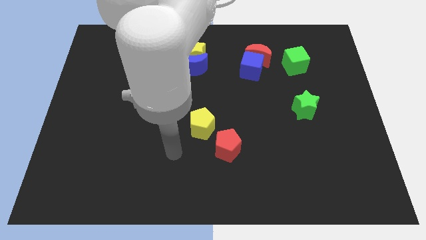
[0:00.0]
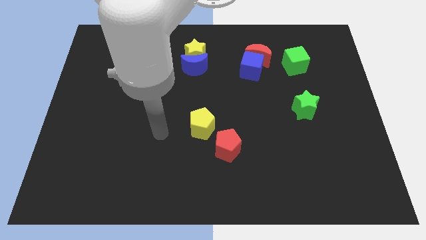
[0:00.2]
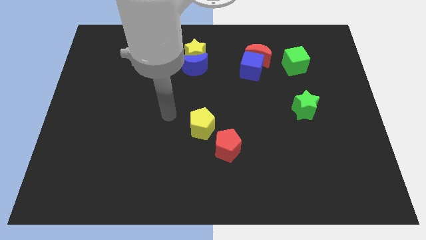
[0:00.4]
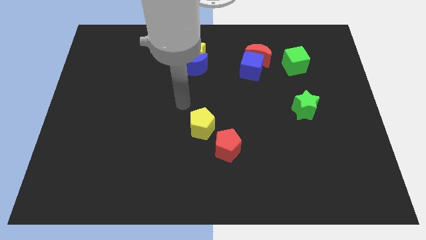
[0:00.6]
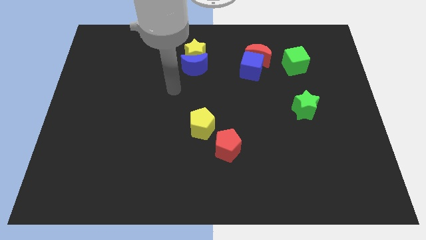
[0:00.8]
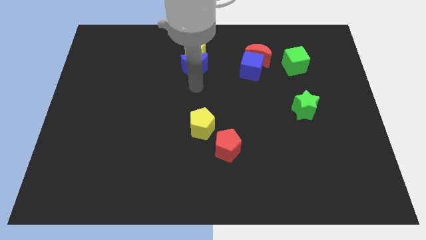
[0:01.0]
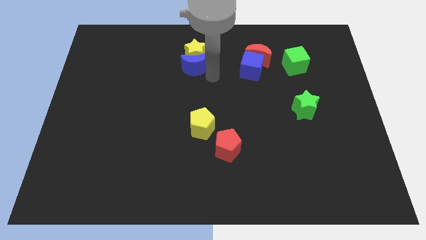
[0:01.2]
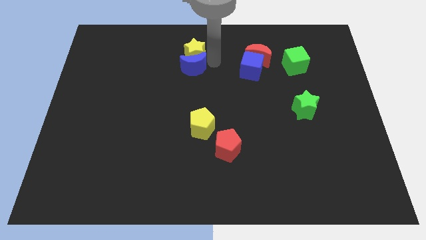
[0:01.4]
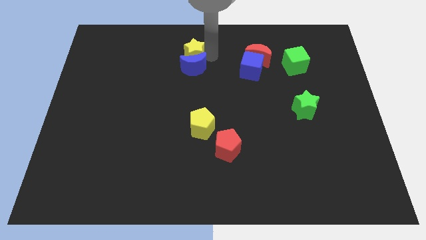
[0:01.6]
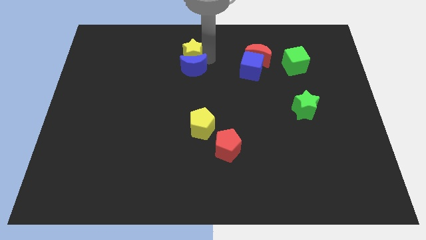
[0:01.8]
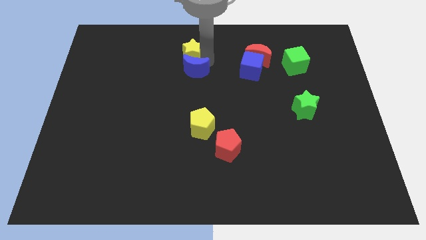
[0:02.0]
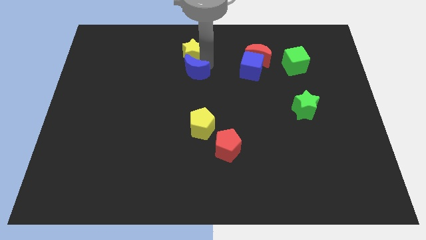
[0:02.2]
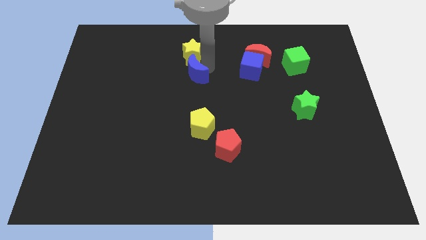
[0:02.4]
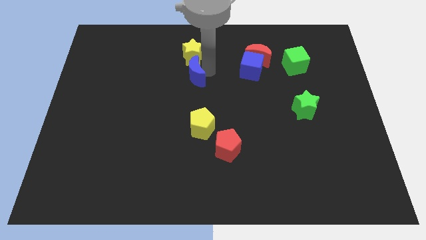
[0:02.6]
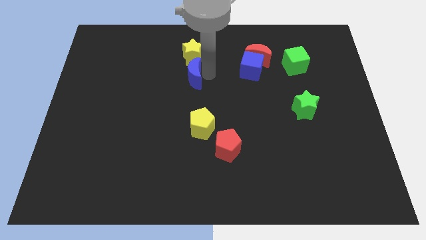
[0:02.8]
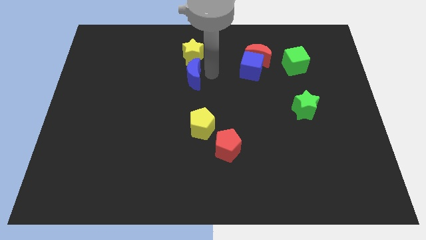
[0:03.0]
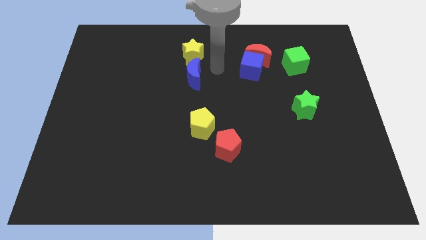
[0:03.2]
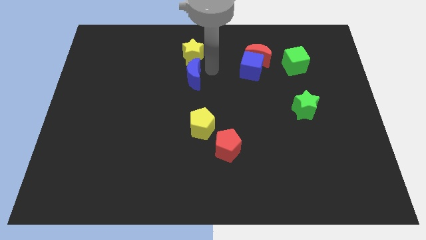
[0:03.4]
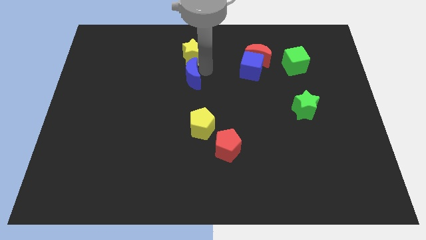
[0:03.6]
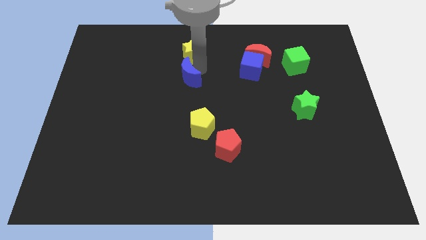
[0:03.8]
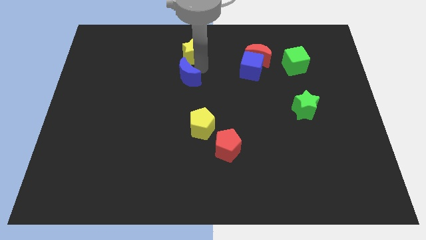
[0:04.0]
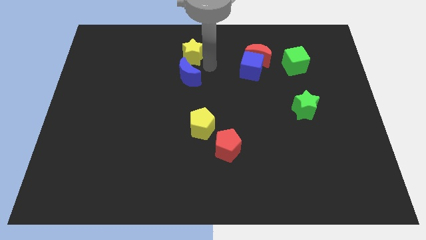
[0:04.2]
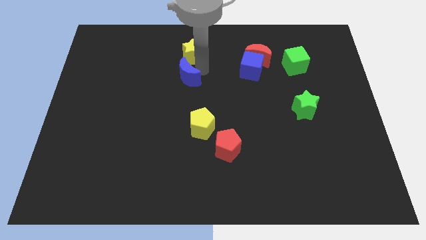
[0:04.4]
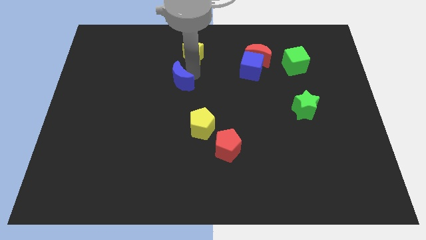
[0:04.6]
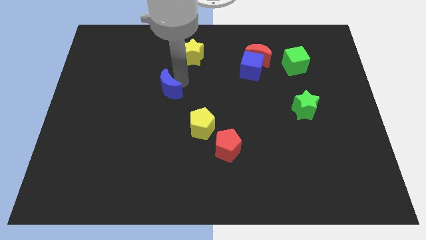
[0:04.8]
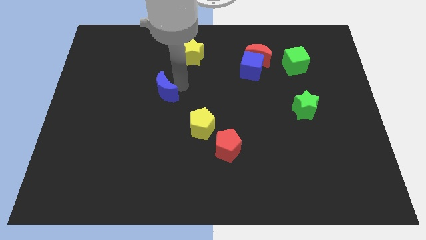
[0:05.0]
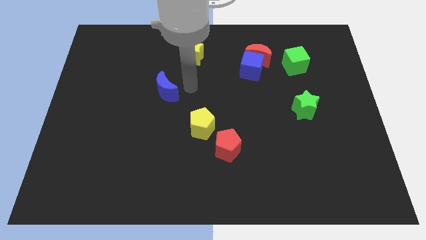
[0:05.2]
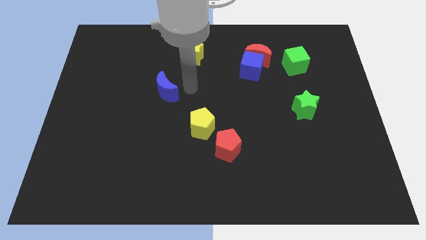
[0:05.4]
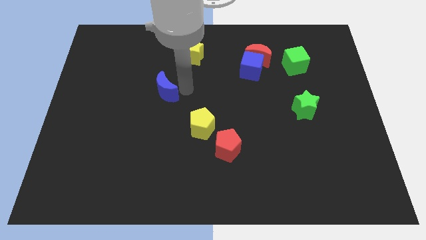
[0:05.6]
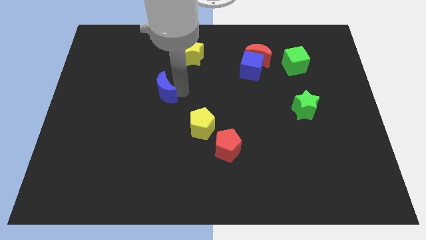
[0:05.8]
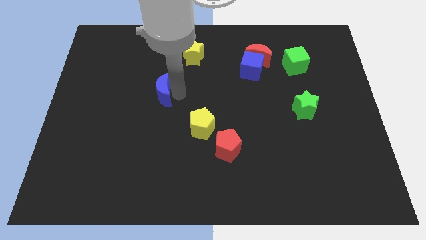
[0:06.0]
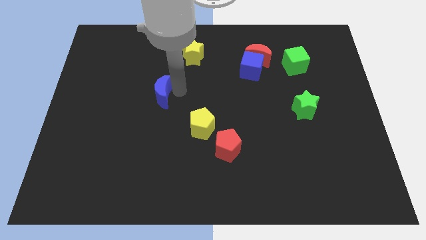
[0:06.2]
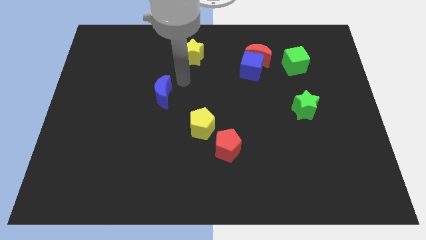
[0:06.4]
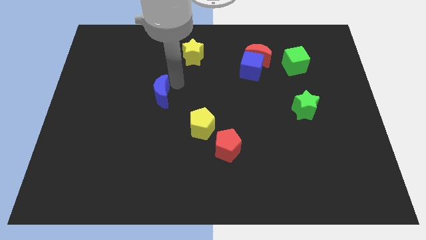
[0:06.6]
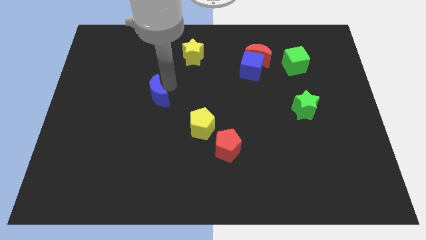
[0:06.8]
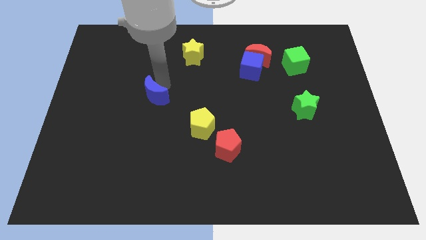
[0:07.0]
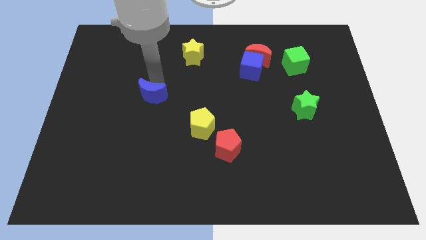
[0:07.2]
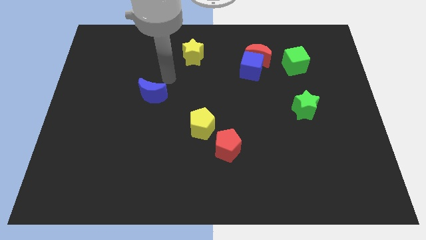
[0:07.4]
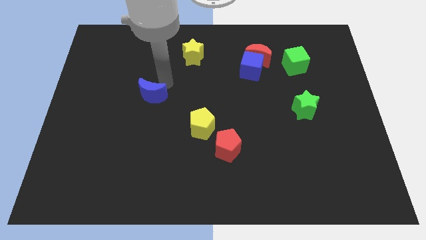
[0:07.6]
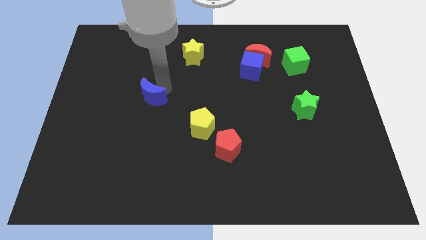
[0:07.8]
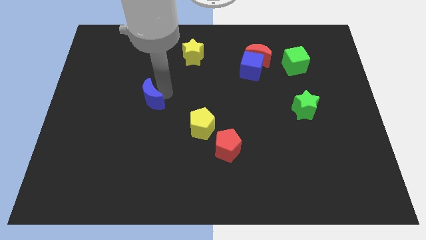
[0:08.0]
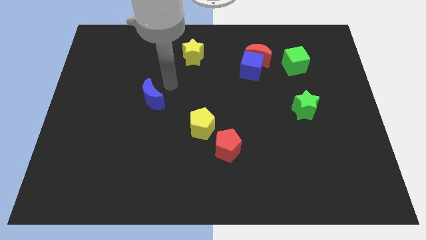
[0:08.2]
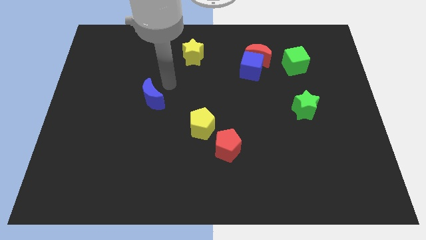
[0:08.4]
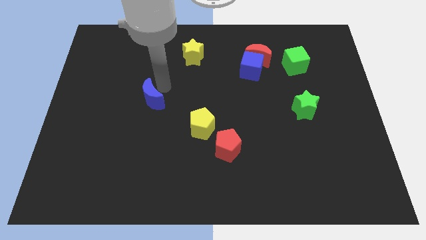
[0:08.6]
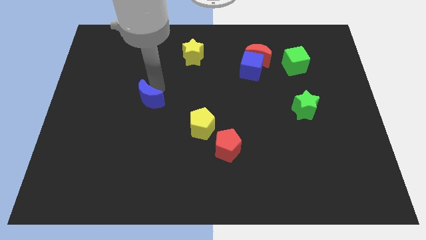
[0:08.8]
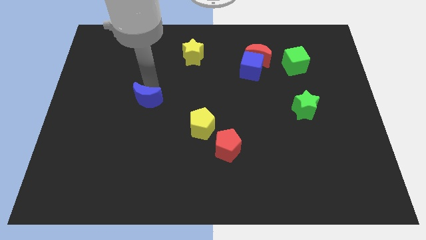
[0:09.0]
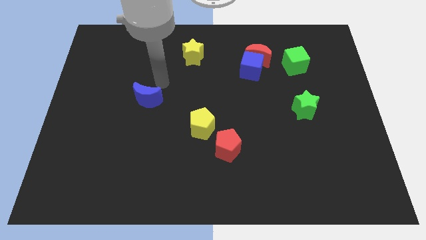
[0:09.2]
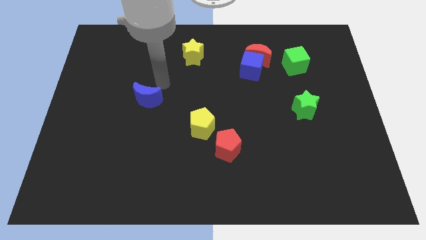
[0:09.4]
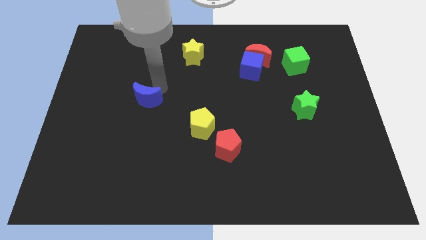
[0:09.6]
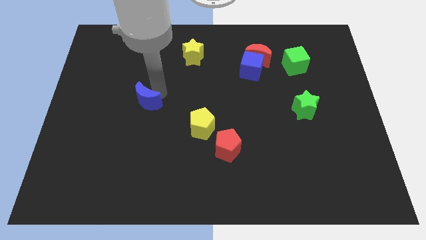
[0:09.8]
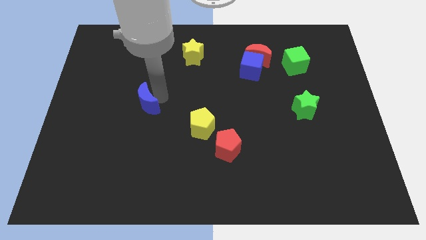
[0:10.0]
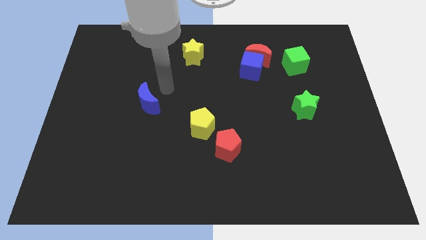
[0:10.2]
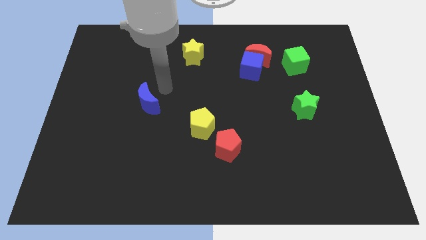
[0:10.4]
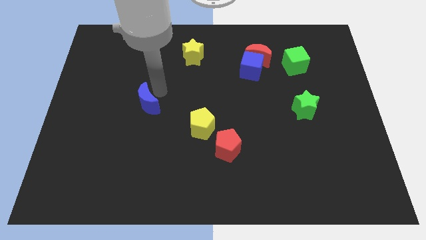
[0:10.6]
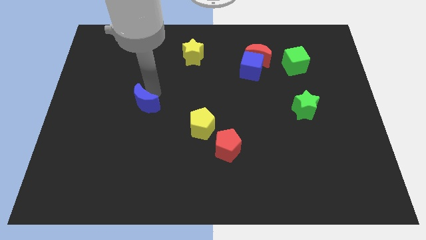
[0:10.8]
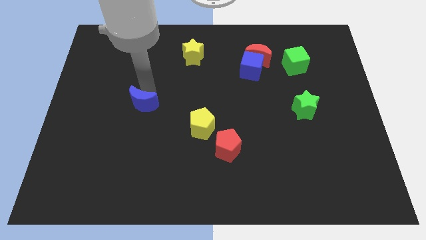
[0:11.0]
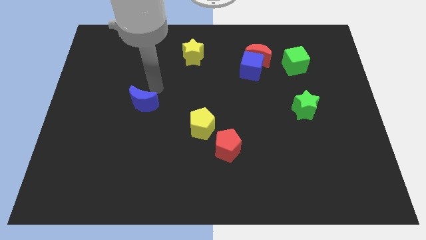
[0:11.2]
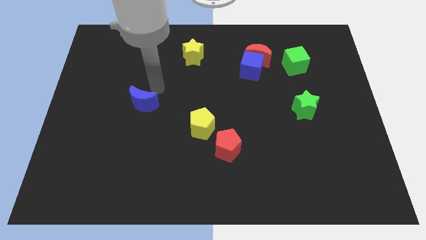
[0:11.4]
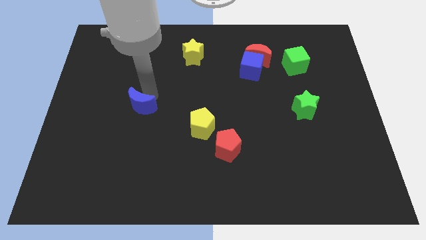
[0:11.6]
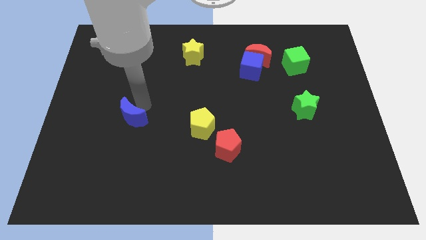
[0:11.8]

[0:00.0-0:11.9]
push the blue moon downwards and to the left diagonally

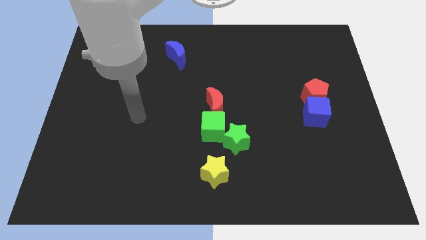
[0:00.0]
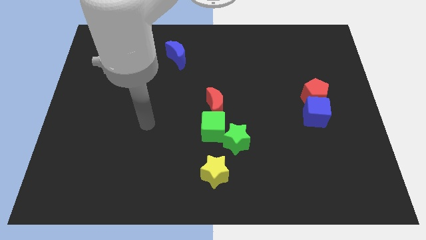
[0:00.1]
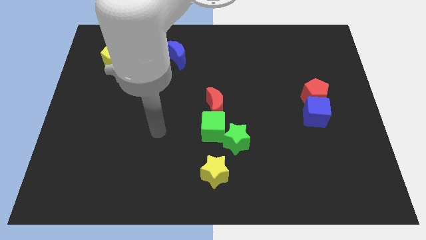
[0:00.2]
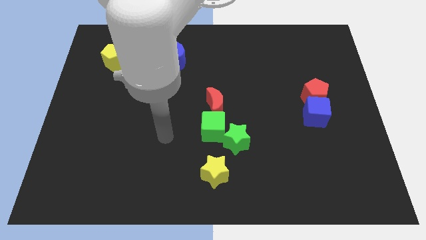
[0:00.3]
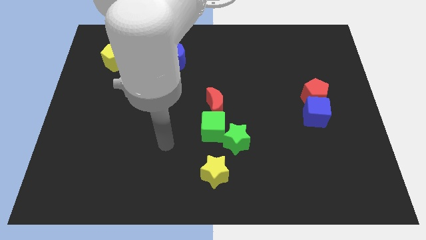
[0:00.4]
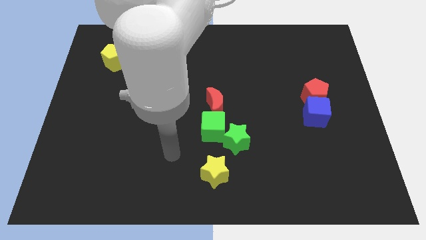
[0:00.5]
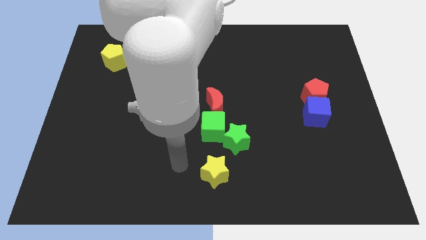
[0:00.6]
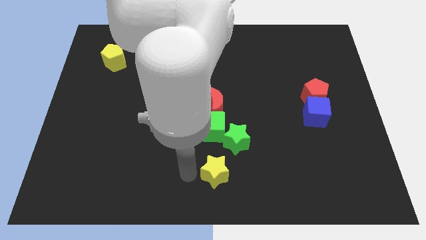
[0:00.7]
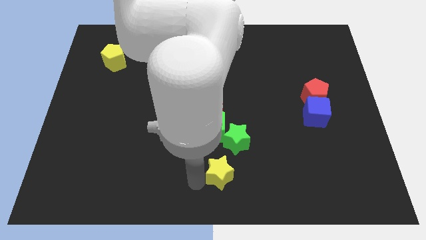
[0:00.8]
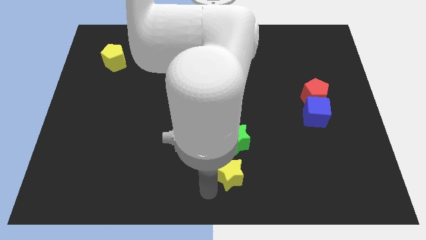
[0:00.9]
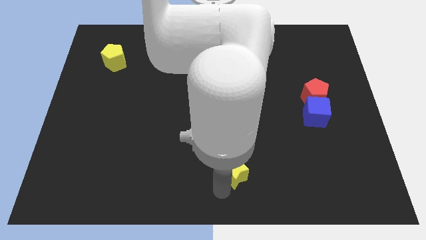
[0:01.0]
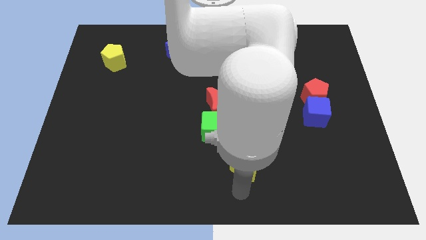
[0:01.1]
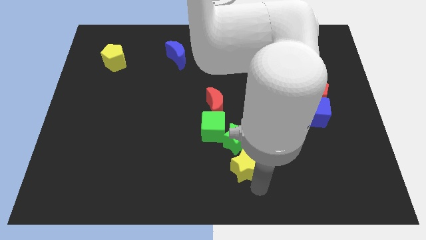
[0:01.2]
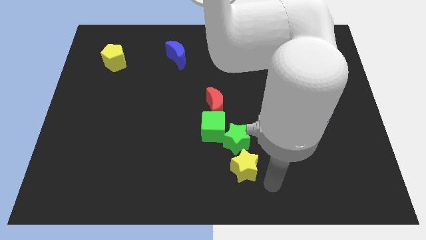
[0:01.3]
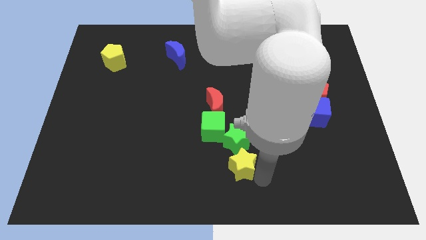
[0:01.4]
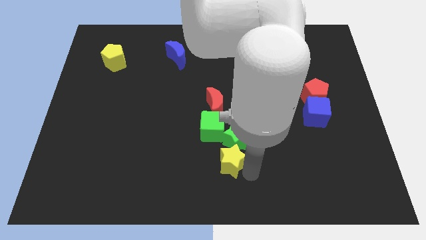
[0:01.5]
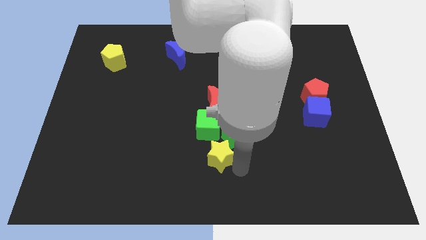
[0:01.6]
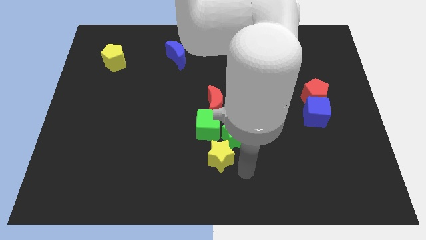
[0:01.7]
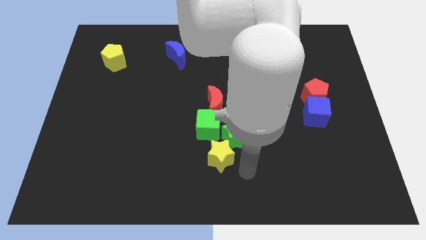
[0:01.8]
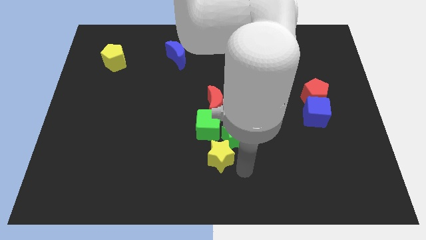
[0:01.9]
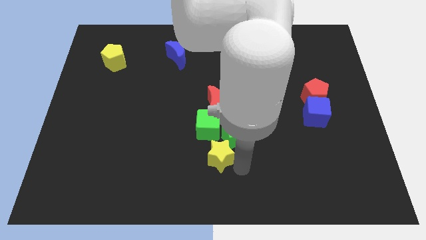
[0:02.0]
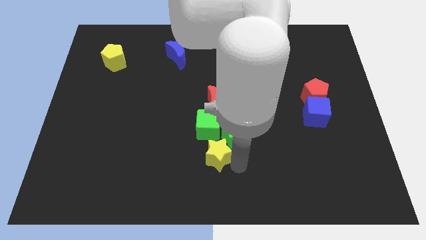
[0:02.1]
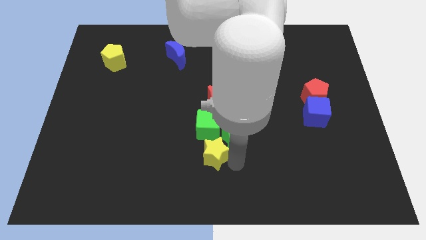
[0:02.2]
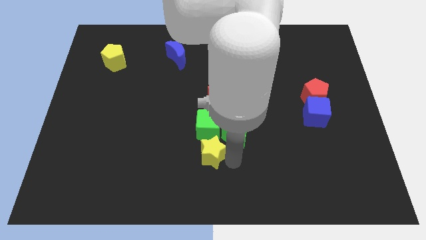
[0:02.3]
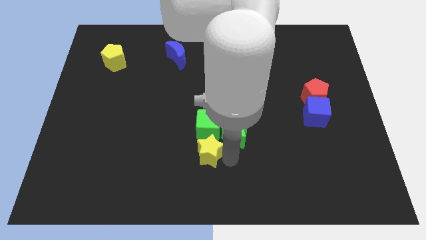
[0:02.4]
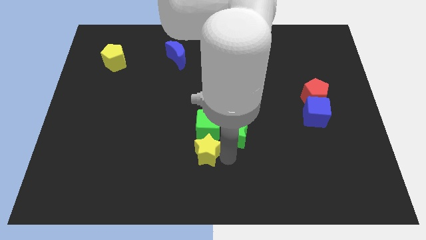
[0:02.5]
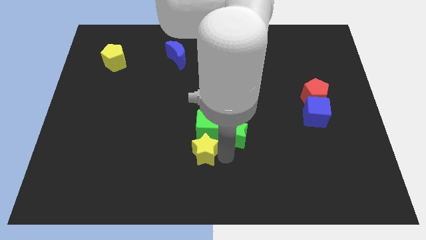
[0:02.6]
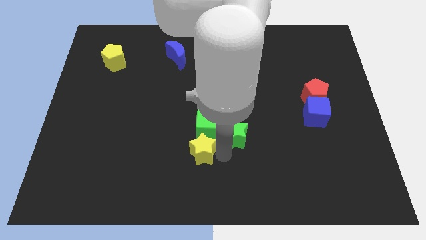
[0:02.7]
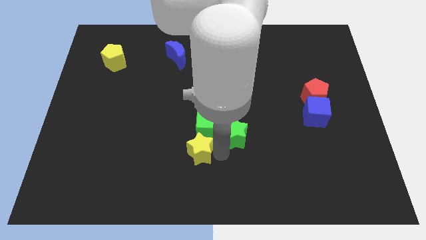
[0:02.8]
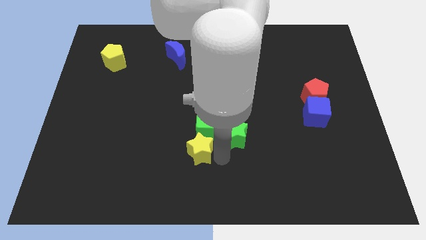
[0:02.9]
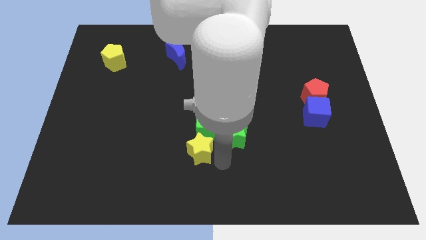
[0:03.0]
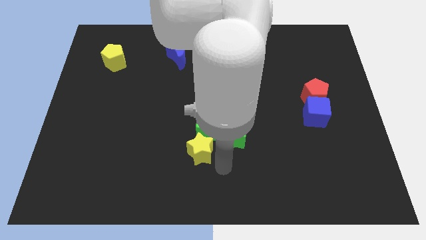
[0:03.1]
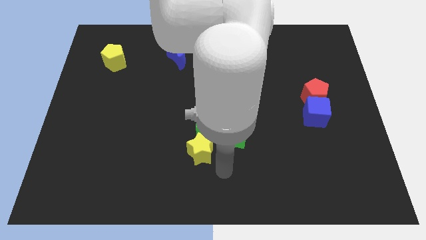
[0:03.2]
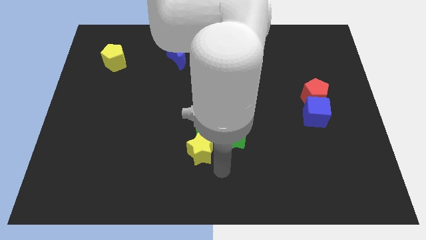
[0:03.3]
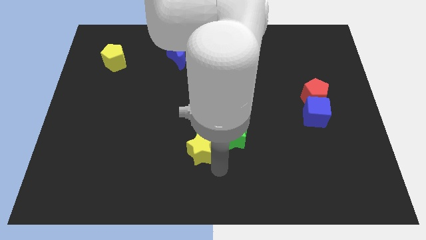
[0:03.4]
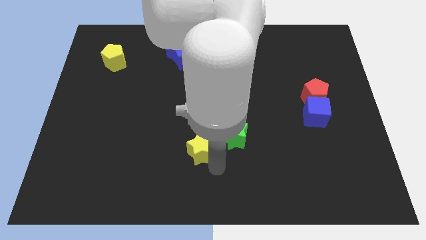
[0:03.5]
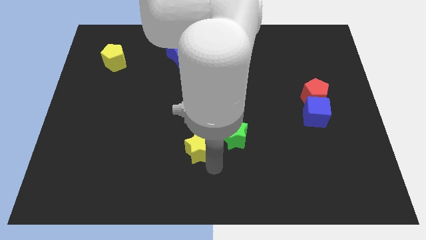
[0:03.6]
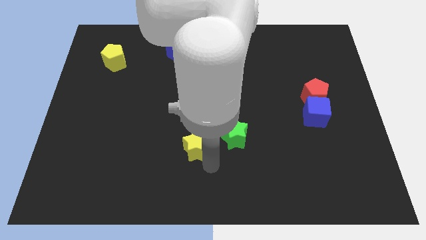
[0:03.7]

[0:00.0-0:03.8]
push the yellow star up and then left slightly
